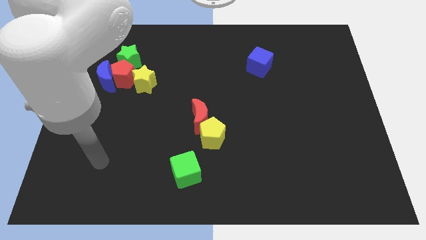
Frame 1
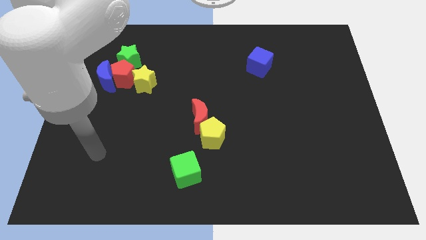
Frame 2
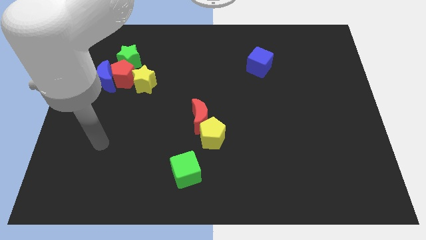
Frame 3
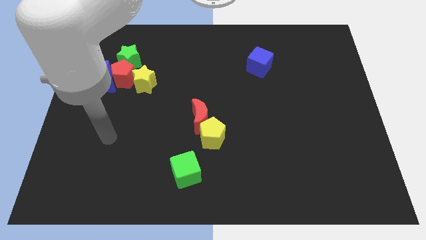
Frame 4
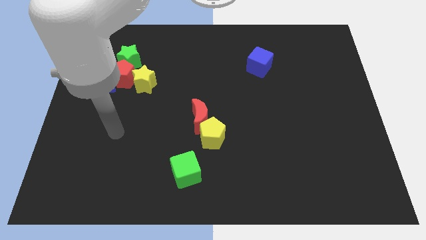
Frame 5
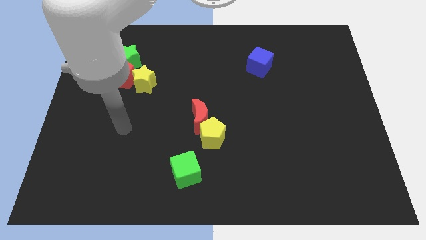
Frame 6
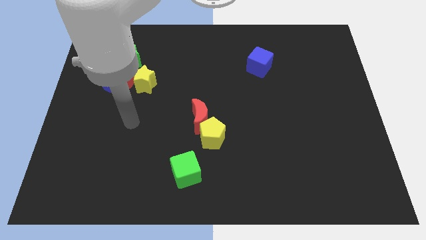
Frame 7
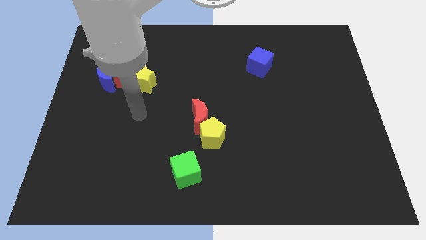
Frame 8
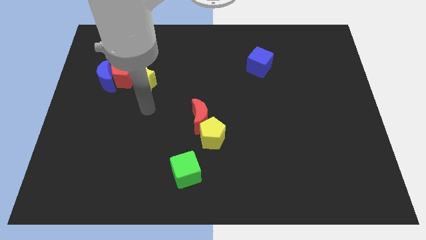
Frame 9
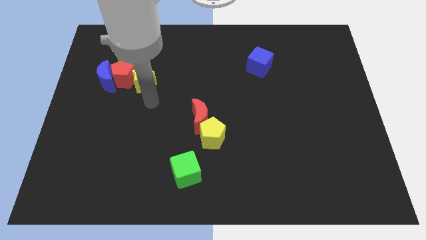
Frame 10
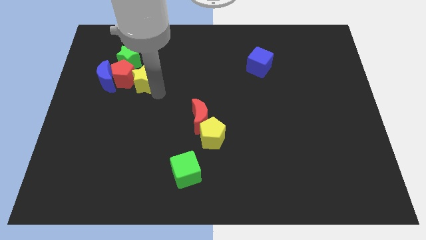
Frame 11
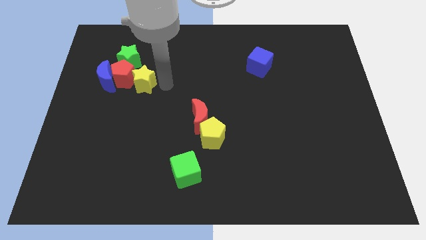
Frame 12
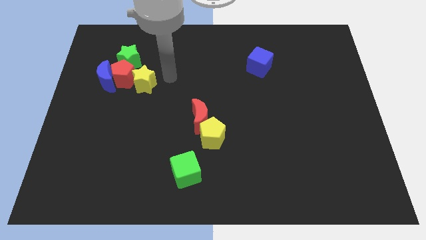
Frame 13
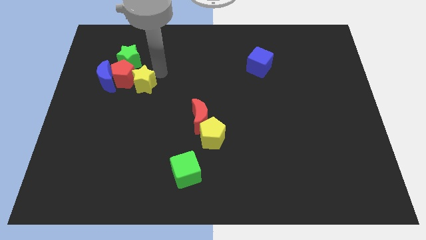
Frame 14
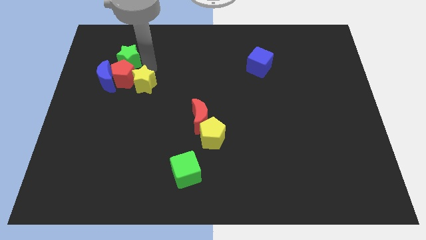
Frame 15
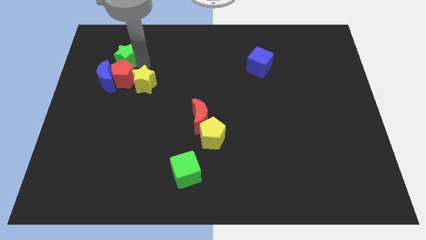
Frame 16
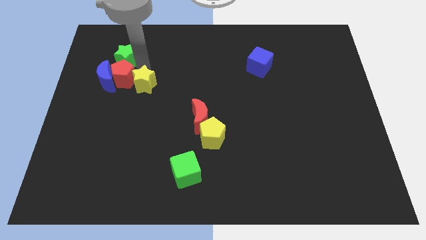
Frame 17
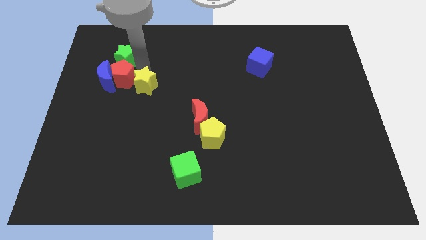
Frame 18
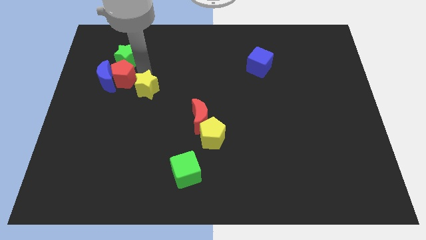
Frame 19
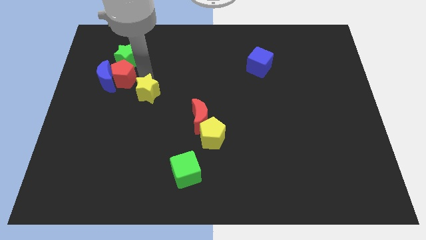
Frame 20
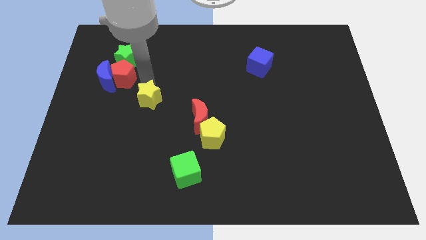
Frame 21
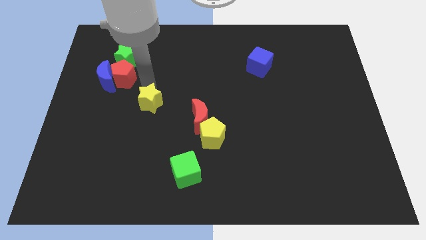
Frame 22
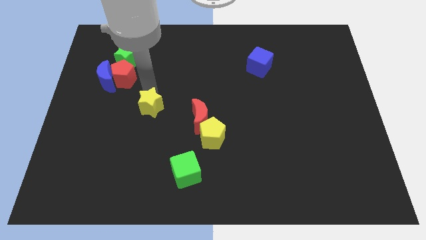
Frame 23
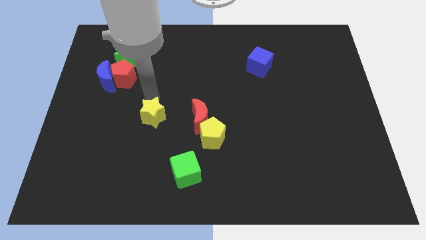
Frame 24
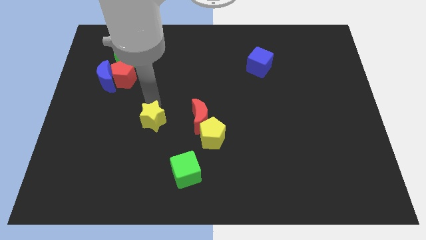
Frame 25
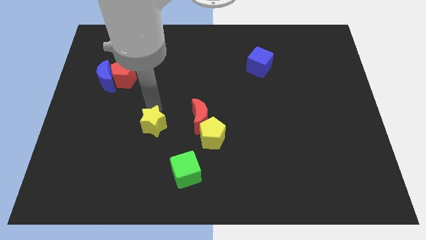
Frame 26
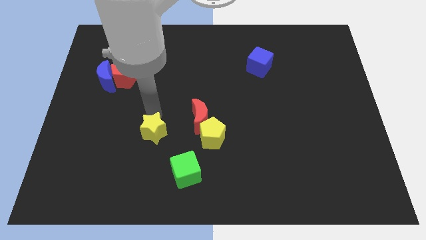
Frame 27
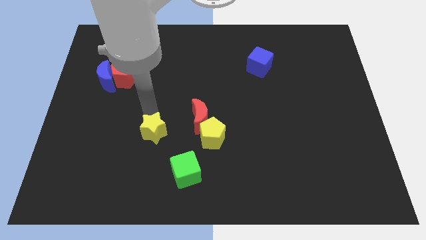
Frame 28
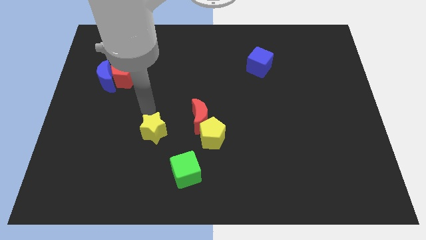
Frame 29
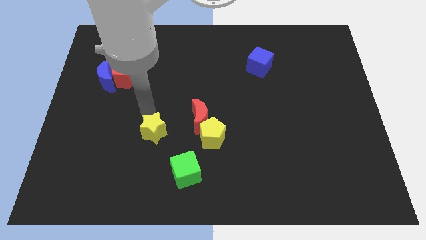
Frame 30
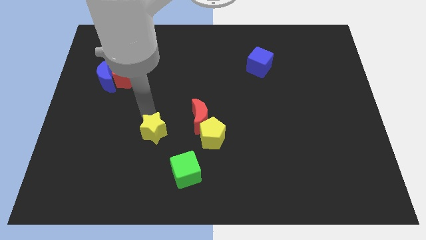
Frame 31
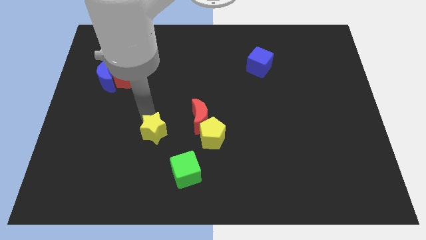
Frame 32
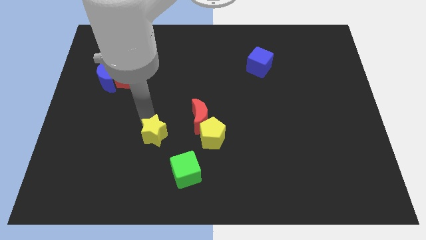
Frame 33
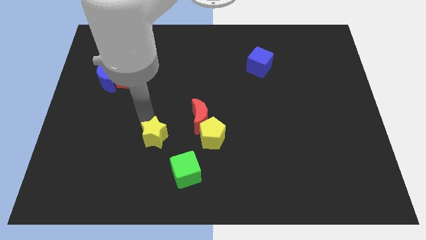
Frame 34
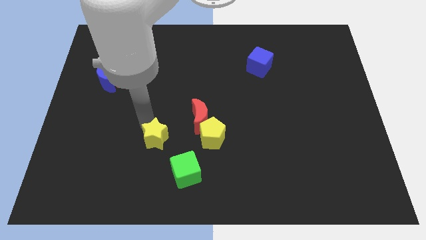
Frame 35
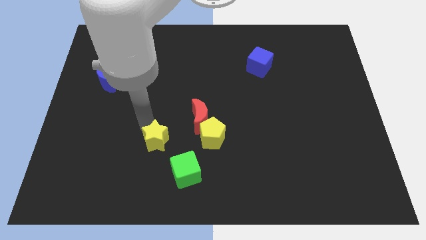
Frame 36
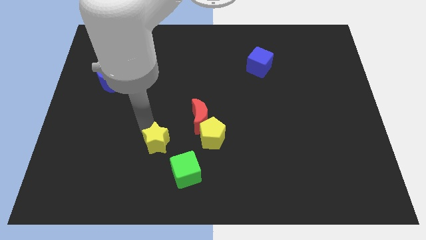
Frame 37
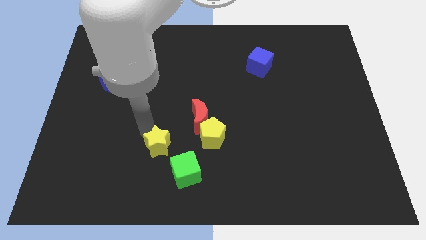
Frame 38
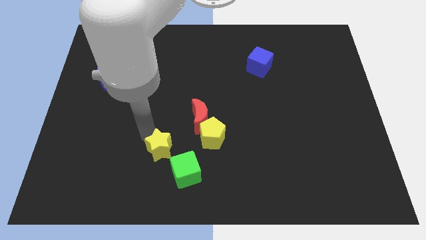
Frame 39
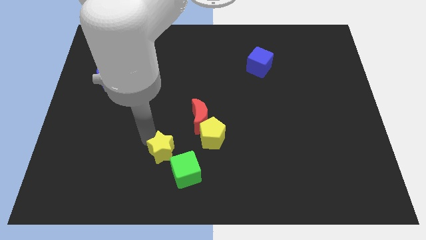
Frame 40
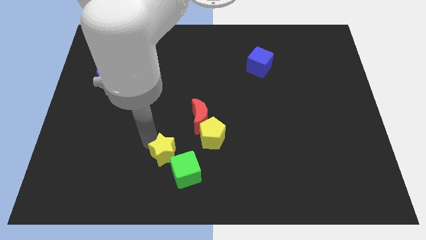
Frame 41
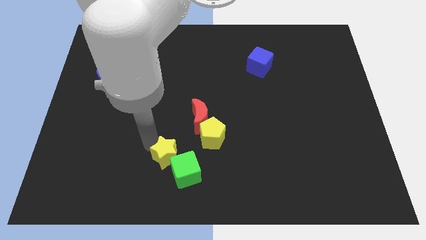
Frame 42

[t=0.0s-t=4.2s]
move the yellow star close to the green cube

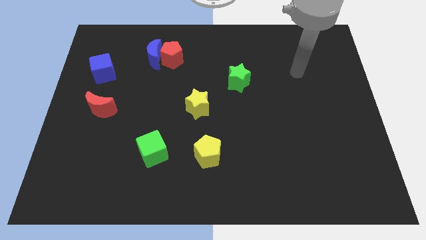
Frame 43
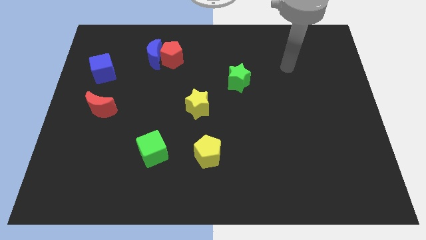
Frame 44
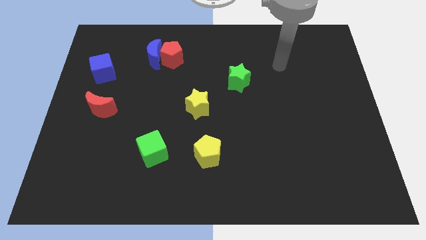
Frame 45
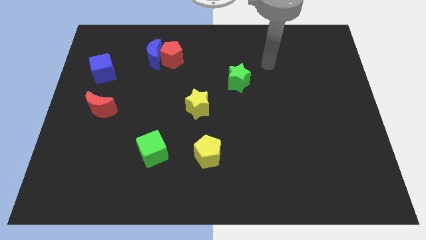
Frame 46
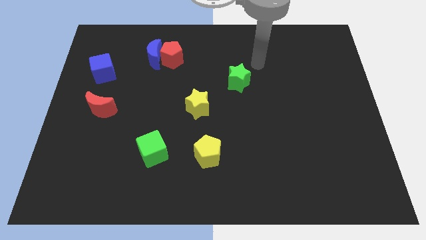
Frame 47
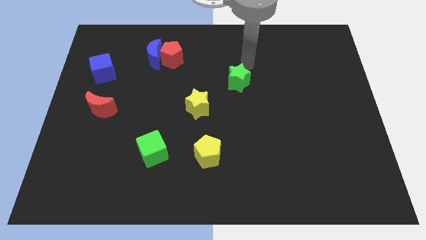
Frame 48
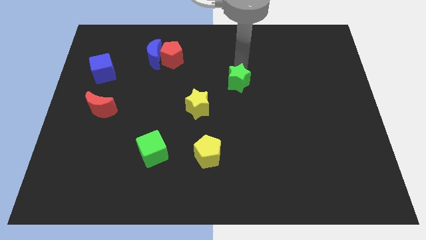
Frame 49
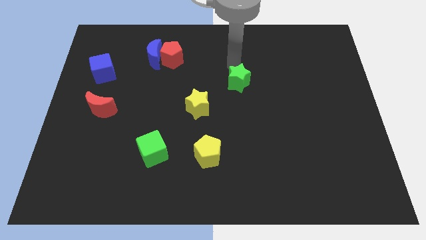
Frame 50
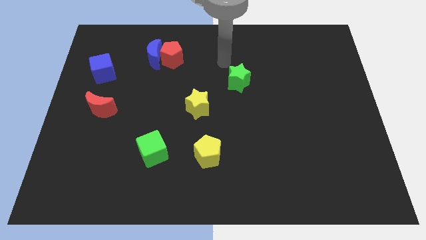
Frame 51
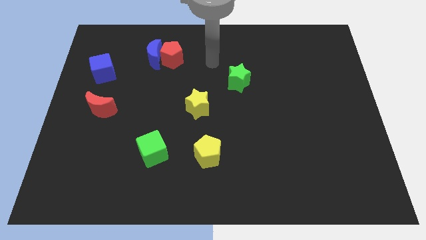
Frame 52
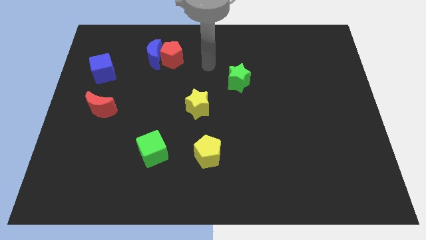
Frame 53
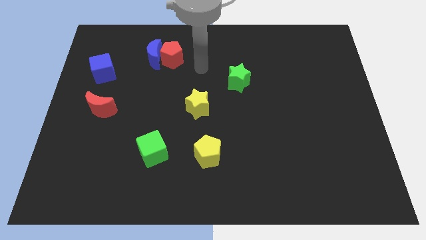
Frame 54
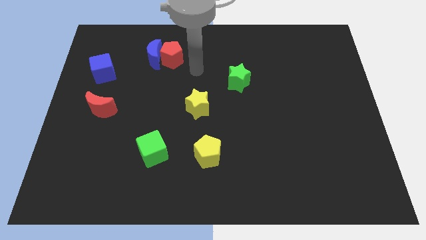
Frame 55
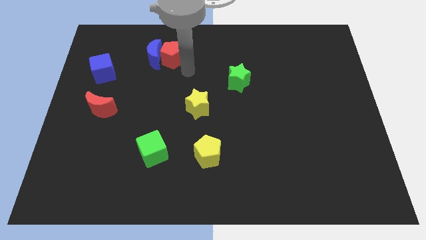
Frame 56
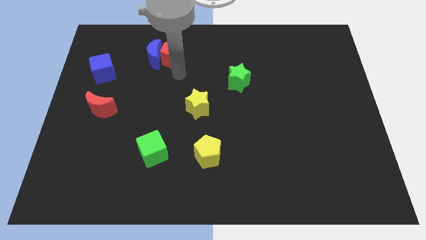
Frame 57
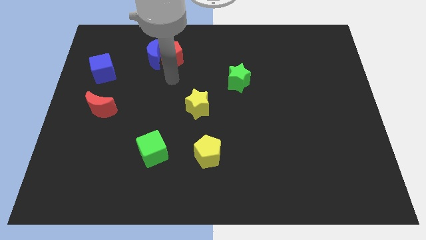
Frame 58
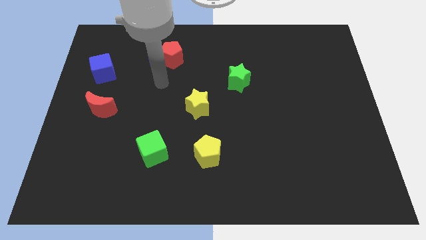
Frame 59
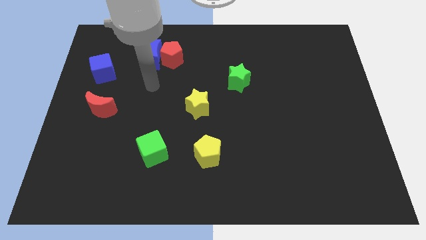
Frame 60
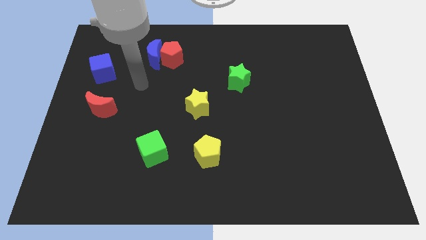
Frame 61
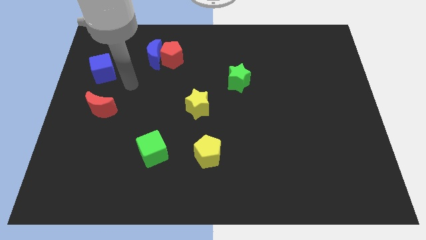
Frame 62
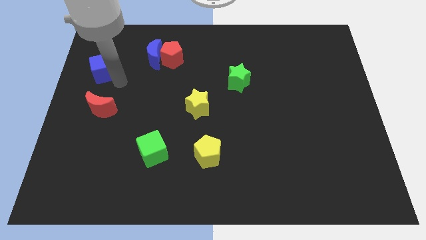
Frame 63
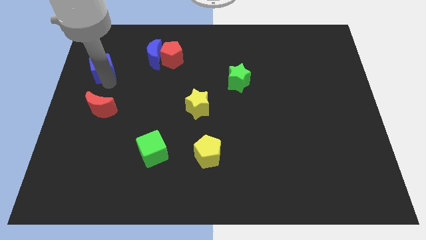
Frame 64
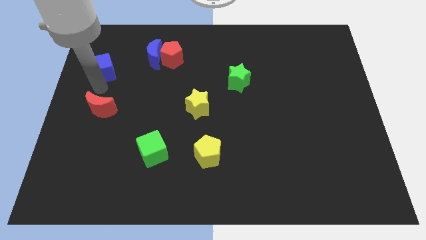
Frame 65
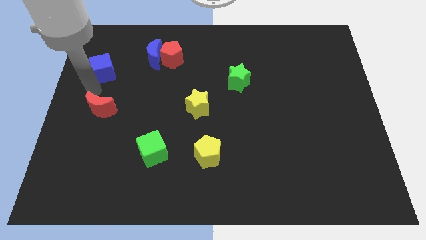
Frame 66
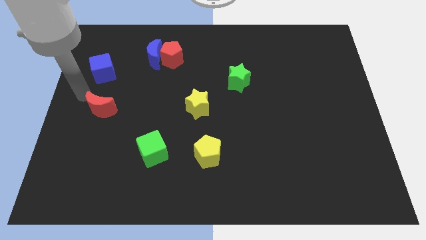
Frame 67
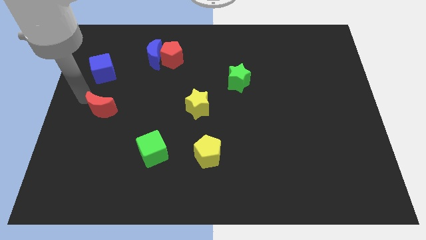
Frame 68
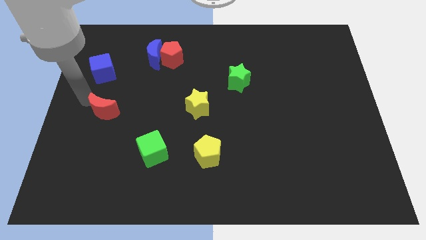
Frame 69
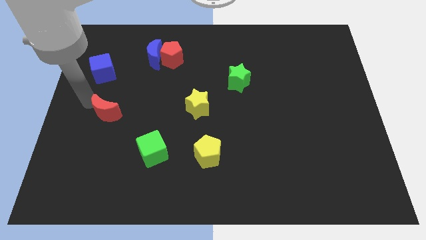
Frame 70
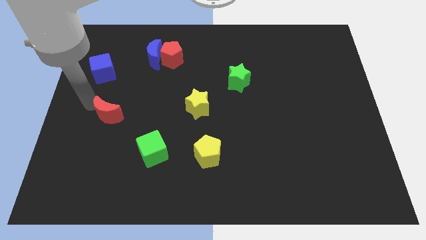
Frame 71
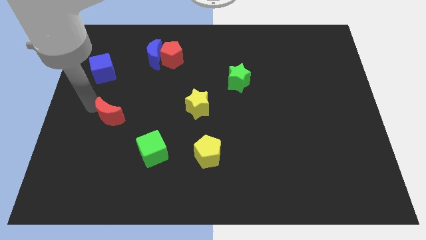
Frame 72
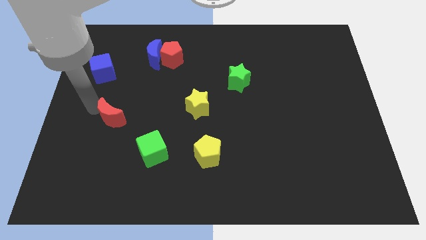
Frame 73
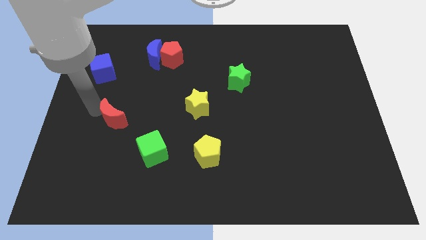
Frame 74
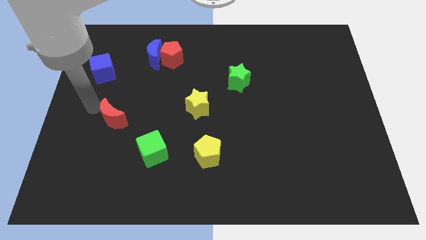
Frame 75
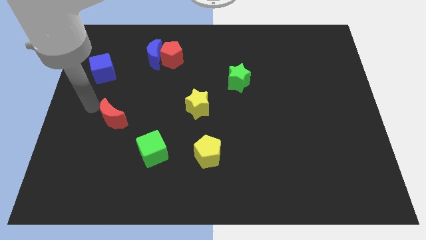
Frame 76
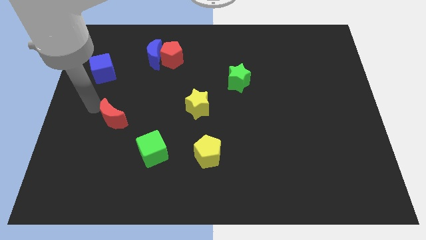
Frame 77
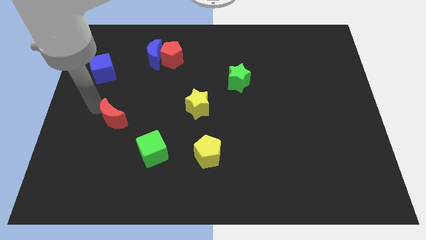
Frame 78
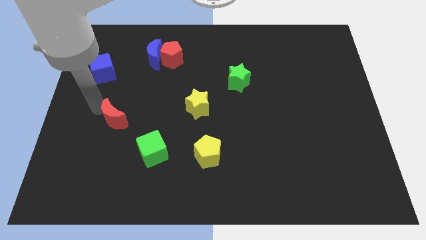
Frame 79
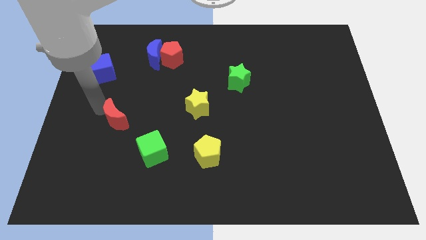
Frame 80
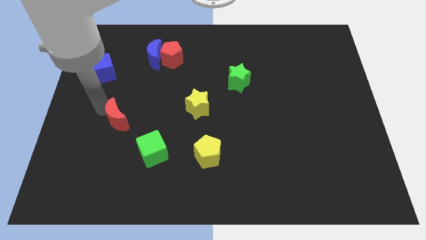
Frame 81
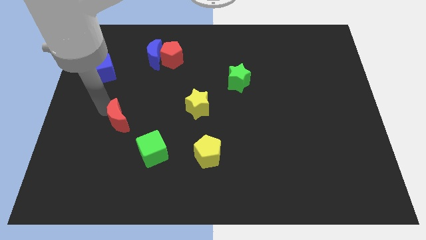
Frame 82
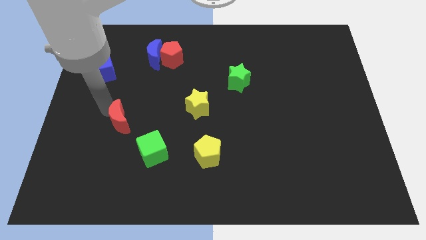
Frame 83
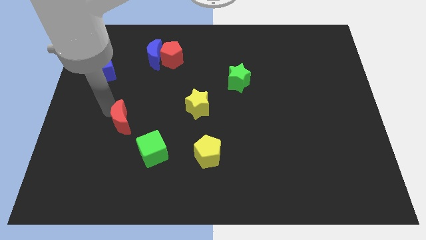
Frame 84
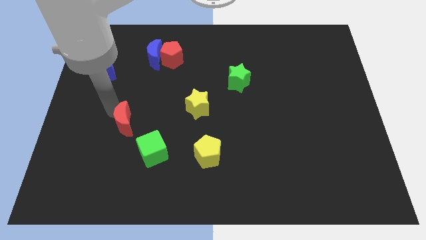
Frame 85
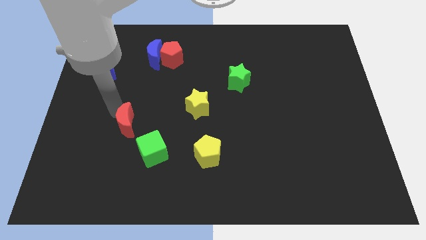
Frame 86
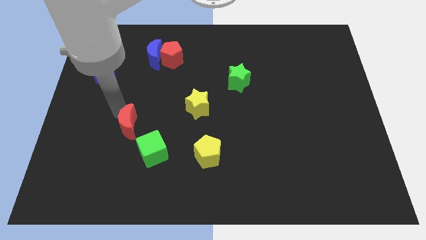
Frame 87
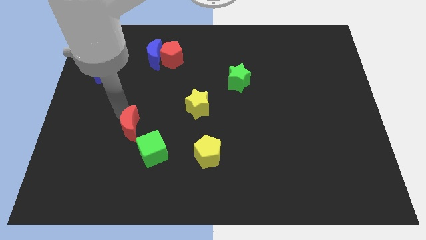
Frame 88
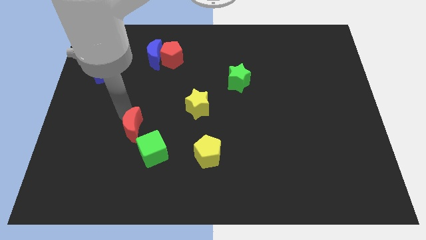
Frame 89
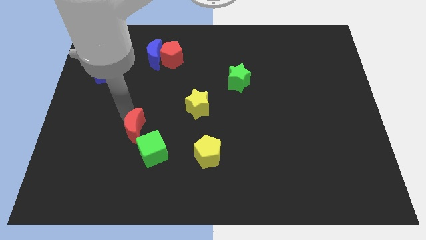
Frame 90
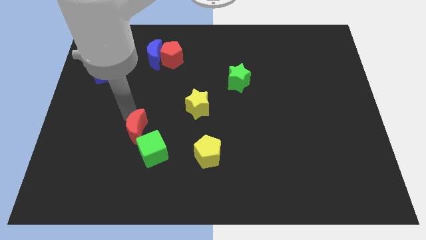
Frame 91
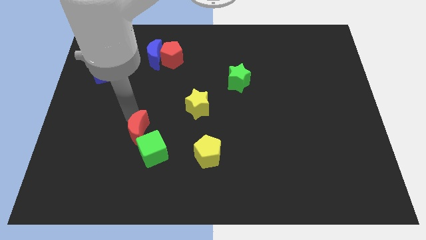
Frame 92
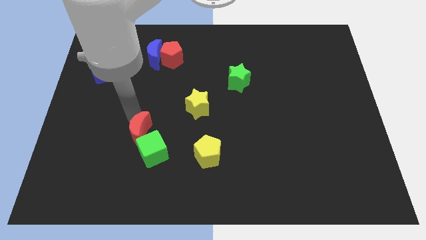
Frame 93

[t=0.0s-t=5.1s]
put the red moon to the green cube
